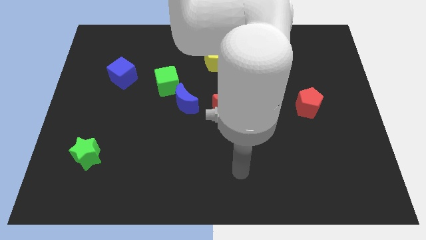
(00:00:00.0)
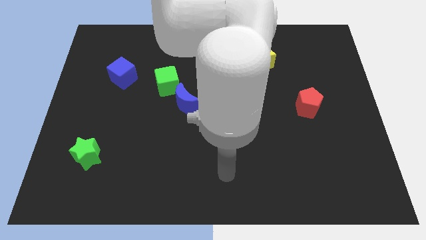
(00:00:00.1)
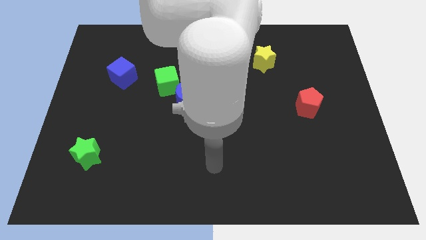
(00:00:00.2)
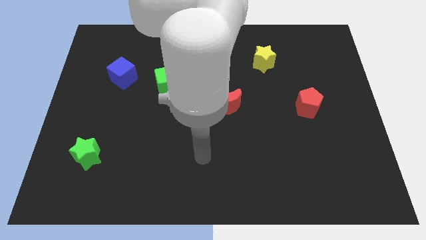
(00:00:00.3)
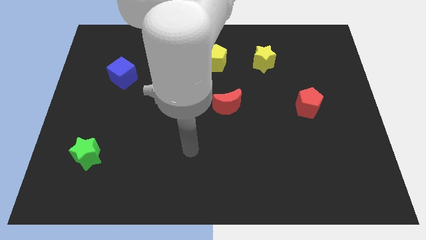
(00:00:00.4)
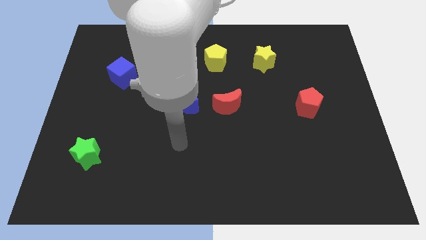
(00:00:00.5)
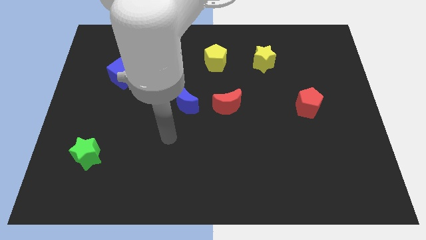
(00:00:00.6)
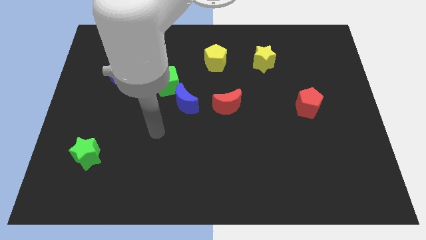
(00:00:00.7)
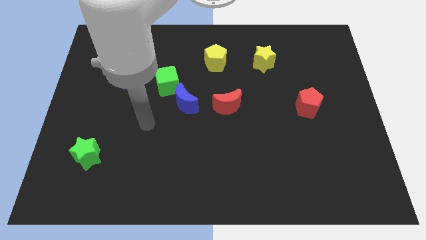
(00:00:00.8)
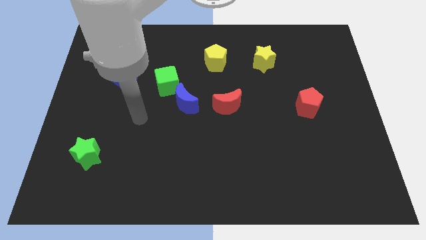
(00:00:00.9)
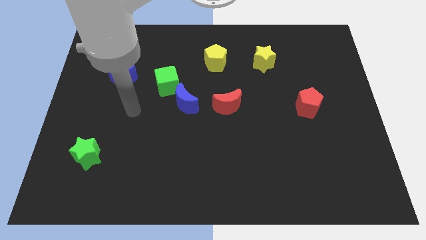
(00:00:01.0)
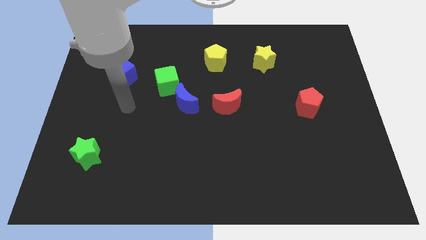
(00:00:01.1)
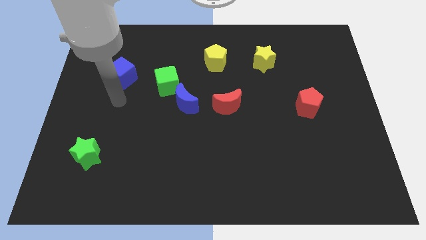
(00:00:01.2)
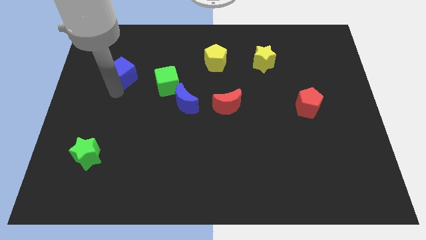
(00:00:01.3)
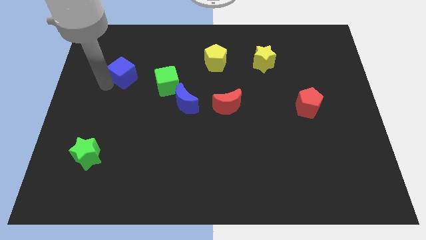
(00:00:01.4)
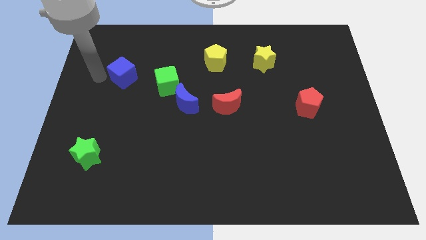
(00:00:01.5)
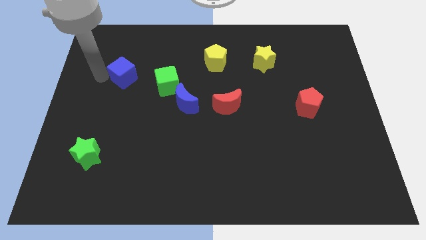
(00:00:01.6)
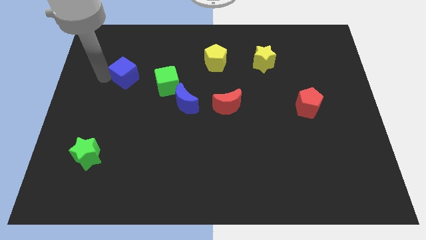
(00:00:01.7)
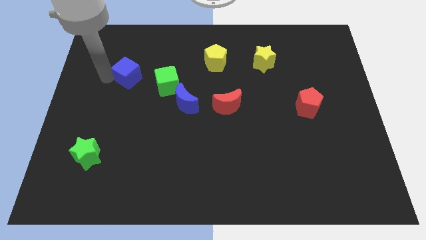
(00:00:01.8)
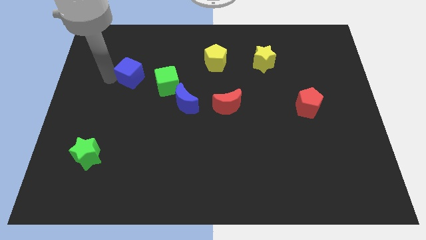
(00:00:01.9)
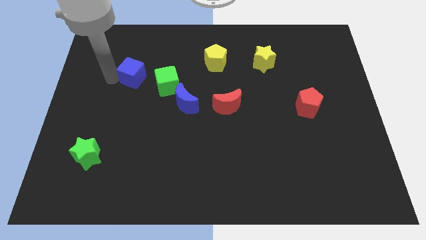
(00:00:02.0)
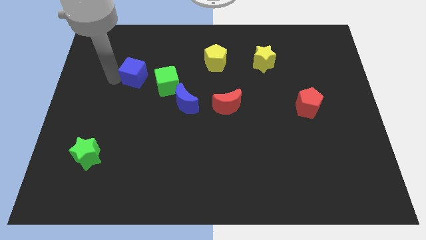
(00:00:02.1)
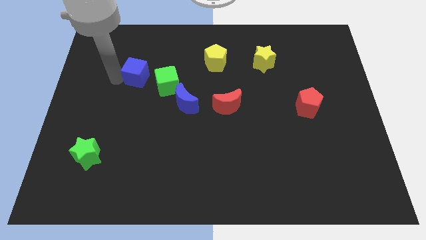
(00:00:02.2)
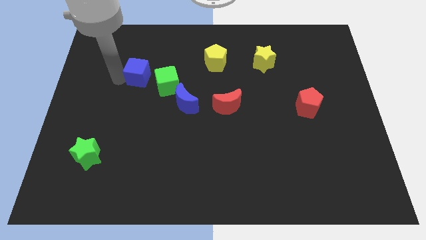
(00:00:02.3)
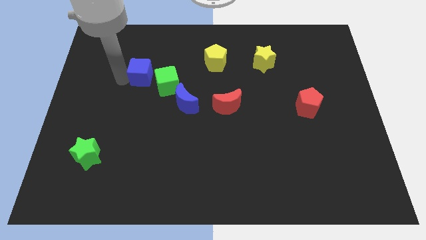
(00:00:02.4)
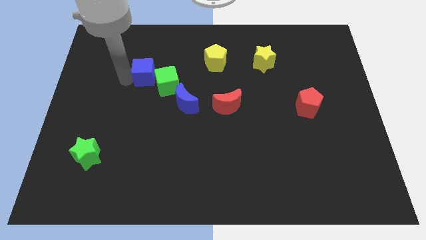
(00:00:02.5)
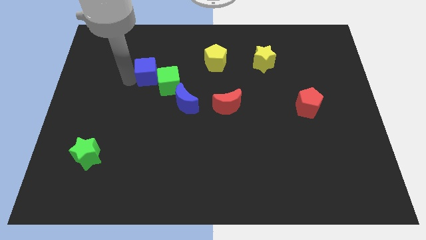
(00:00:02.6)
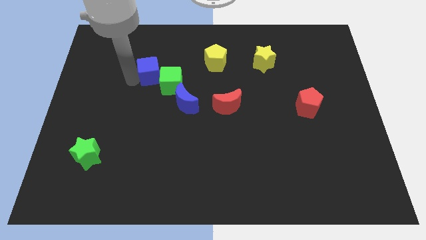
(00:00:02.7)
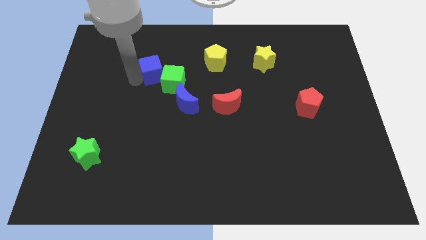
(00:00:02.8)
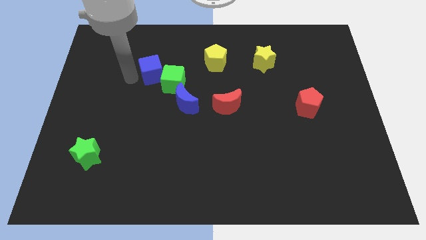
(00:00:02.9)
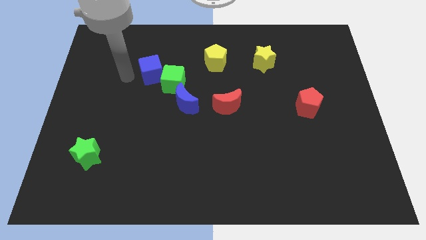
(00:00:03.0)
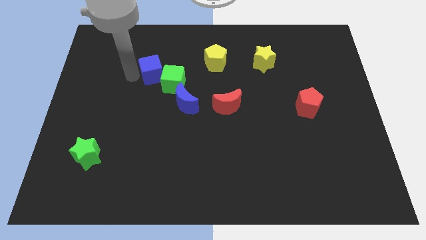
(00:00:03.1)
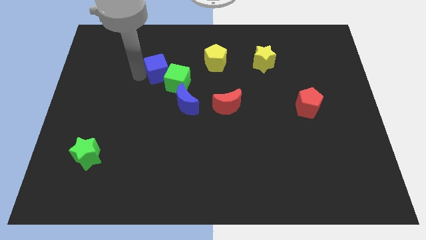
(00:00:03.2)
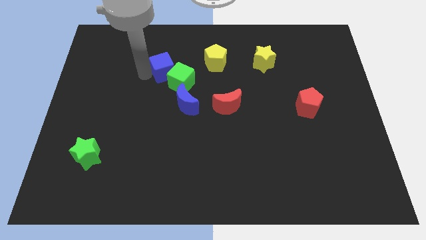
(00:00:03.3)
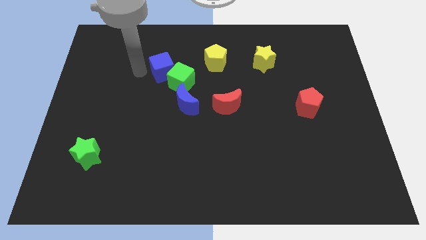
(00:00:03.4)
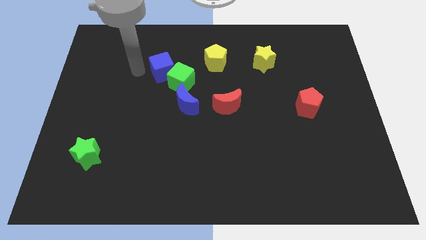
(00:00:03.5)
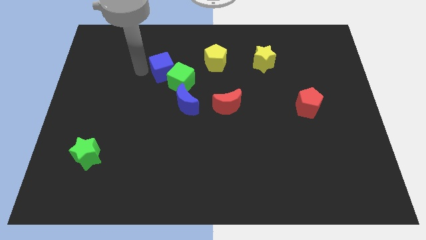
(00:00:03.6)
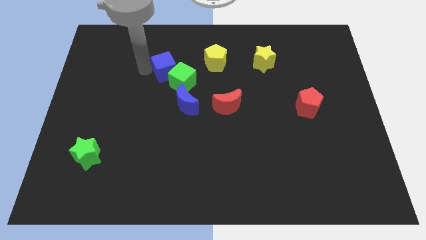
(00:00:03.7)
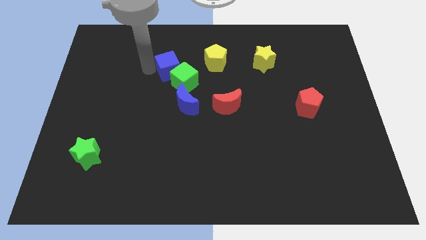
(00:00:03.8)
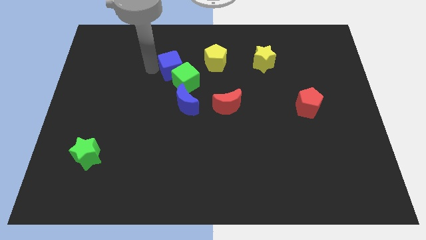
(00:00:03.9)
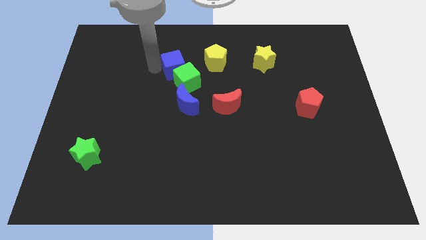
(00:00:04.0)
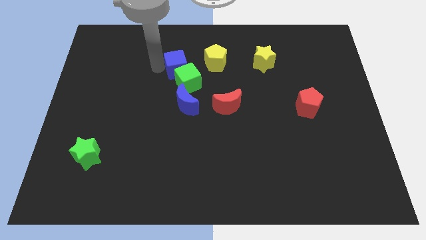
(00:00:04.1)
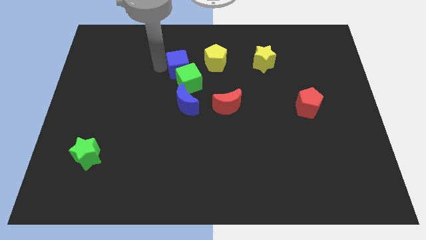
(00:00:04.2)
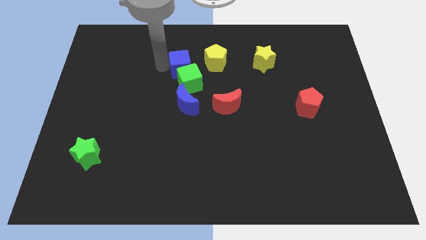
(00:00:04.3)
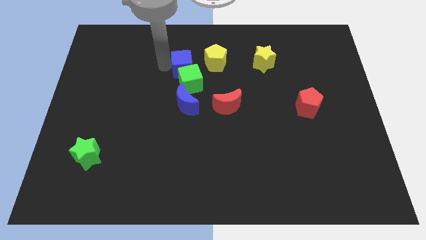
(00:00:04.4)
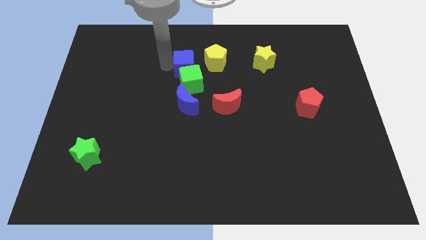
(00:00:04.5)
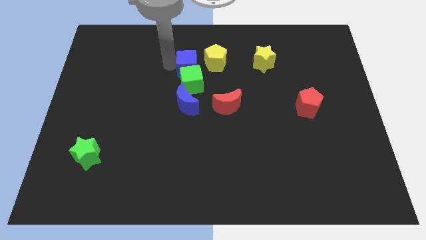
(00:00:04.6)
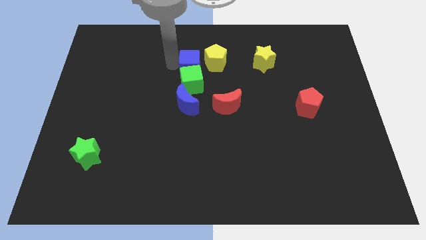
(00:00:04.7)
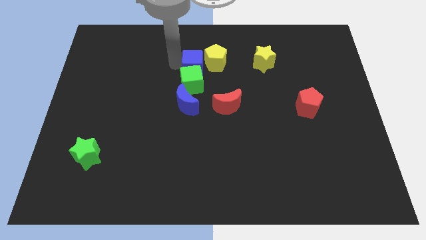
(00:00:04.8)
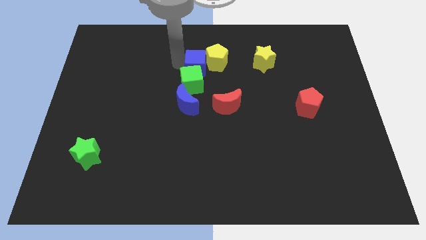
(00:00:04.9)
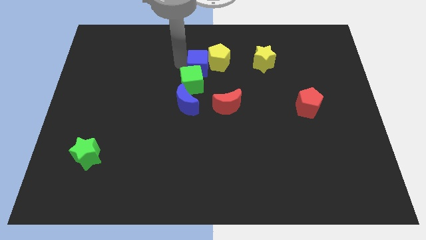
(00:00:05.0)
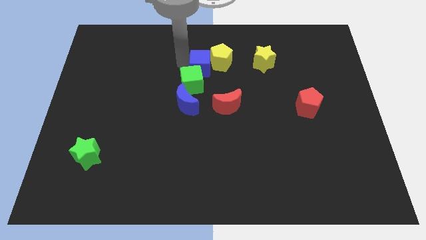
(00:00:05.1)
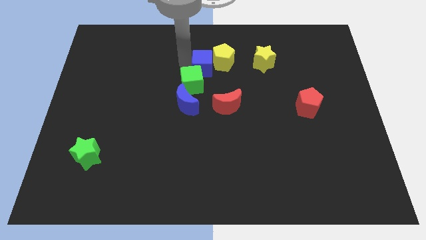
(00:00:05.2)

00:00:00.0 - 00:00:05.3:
push the blue cube to the right

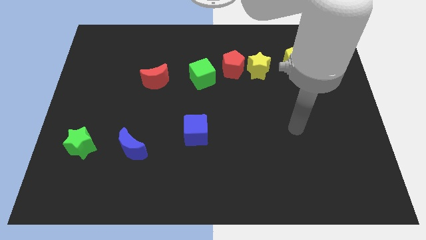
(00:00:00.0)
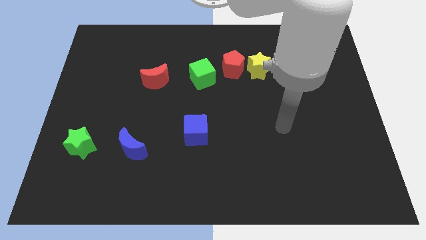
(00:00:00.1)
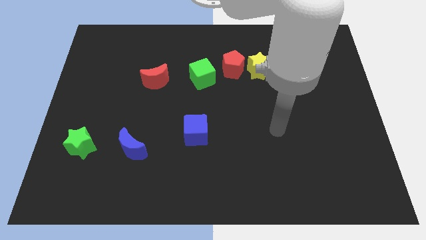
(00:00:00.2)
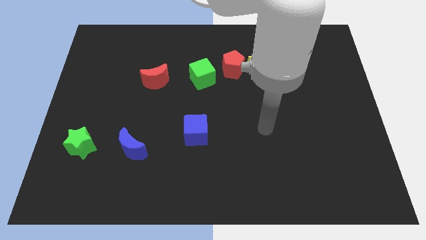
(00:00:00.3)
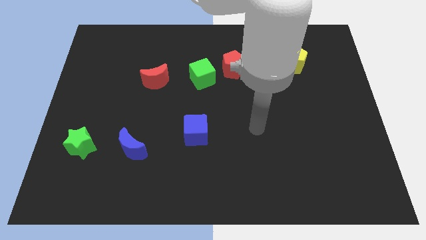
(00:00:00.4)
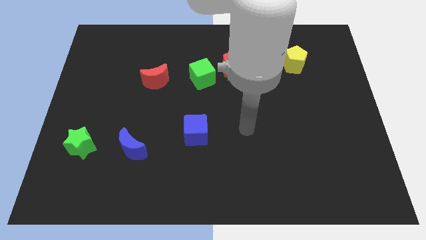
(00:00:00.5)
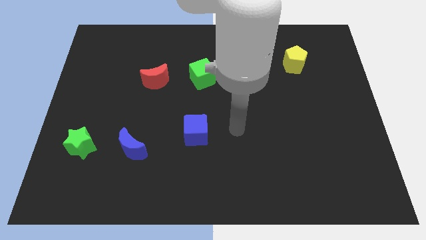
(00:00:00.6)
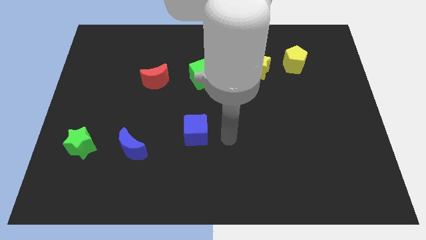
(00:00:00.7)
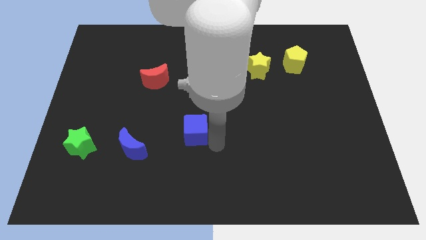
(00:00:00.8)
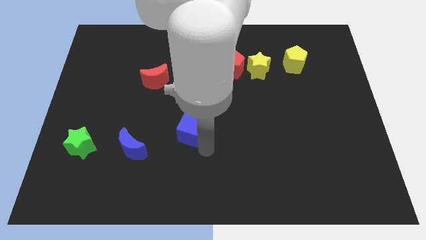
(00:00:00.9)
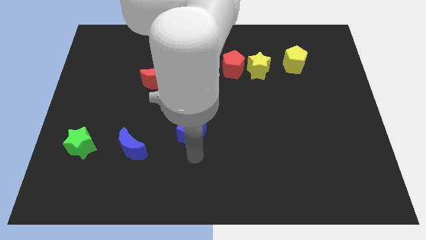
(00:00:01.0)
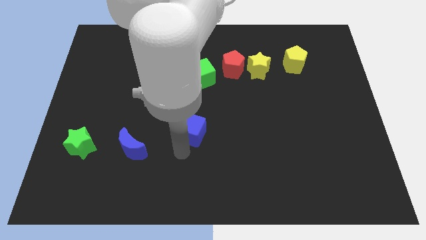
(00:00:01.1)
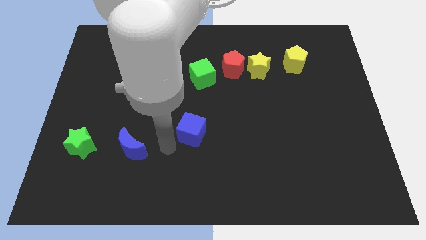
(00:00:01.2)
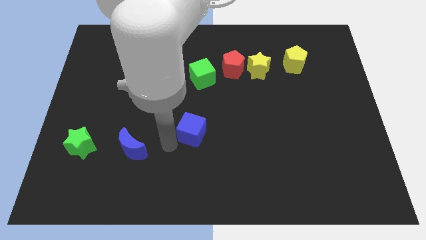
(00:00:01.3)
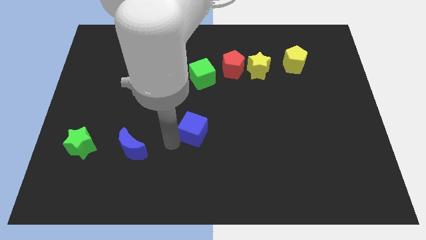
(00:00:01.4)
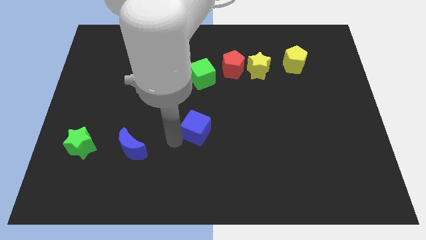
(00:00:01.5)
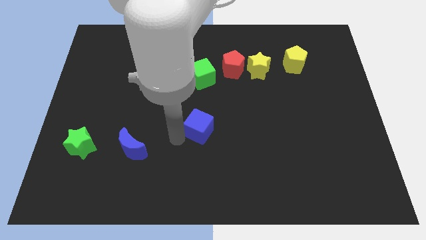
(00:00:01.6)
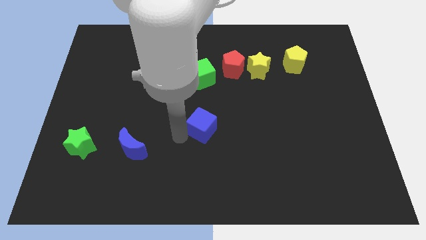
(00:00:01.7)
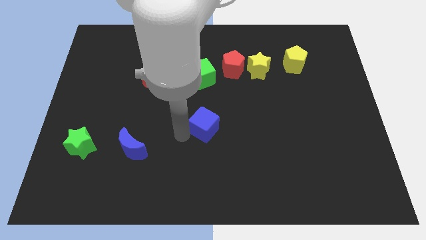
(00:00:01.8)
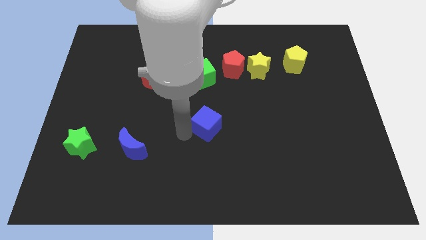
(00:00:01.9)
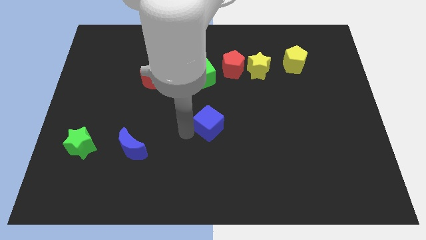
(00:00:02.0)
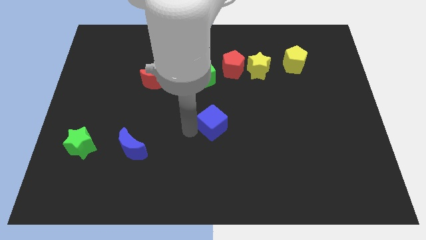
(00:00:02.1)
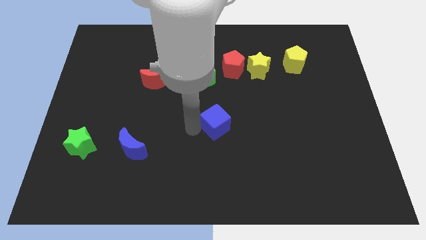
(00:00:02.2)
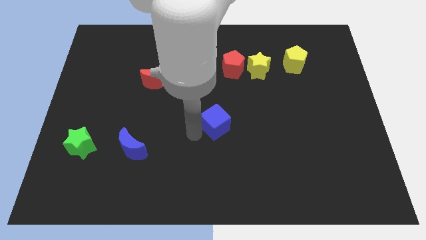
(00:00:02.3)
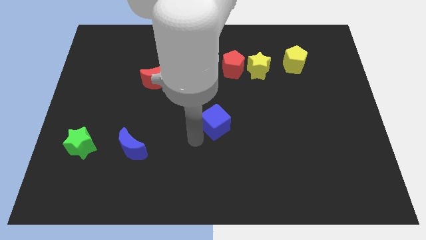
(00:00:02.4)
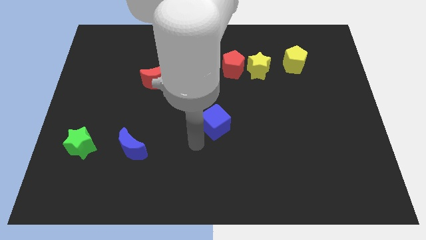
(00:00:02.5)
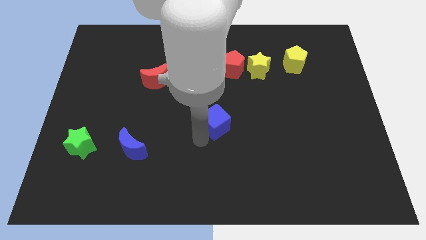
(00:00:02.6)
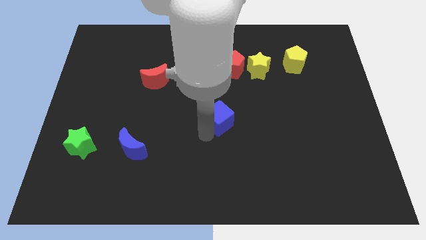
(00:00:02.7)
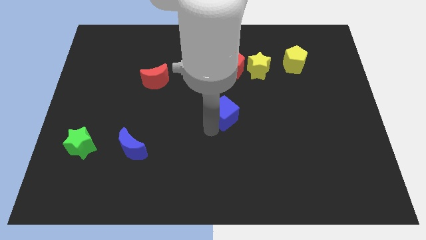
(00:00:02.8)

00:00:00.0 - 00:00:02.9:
slightly push the blue cube upwards and then right
